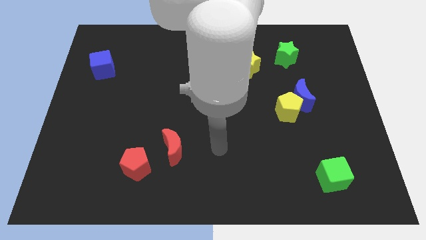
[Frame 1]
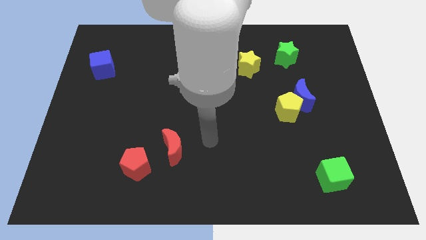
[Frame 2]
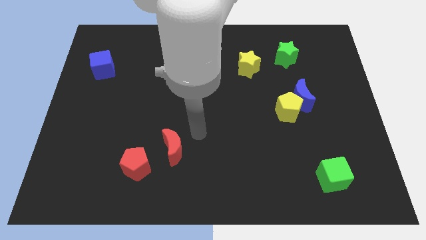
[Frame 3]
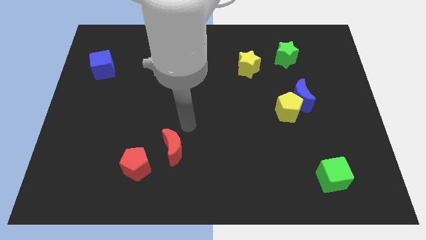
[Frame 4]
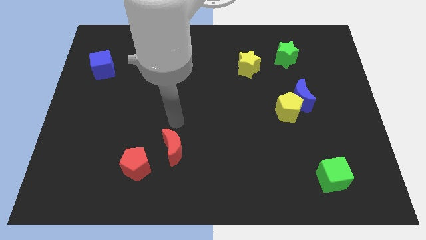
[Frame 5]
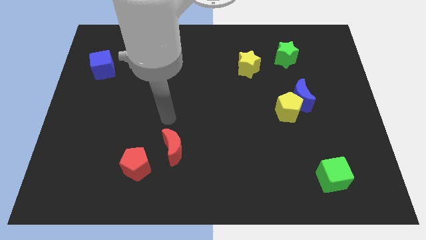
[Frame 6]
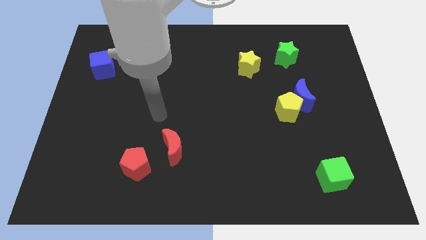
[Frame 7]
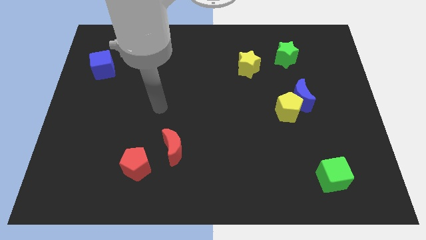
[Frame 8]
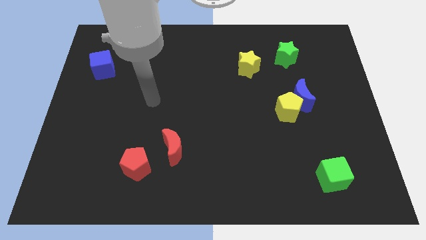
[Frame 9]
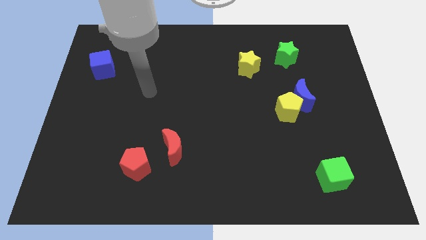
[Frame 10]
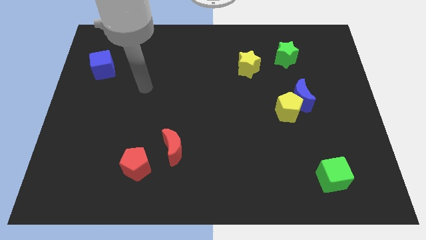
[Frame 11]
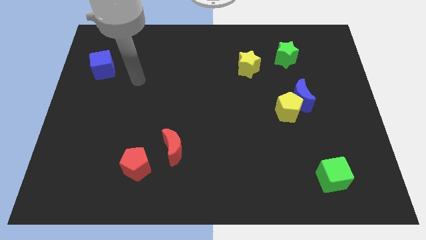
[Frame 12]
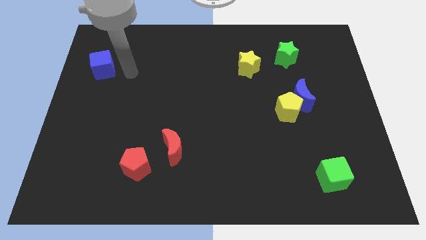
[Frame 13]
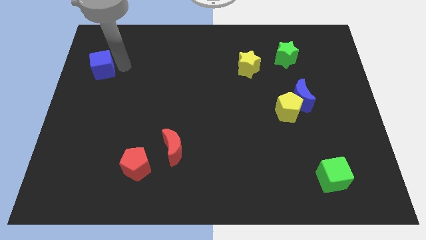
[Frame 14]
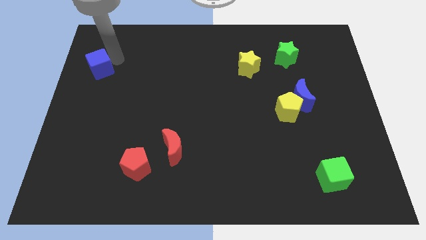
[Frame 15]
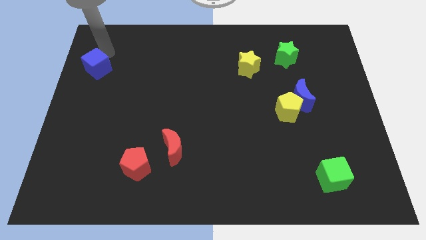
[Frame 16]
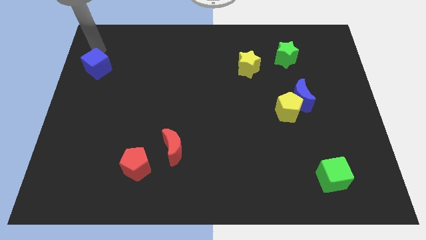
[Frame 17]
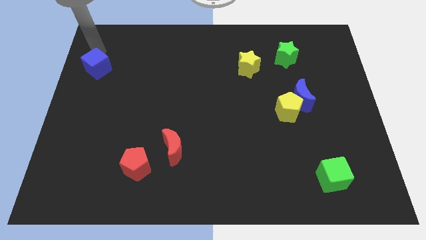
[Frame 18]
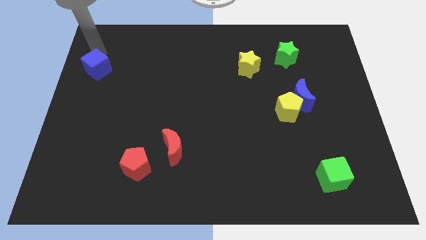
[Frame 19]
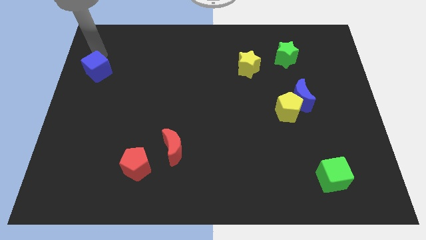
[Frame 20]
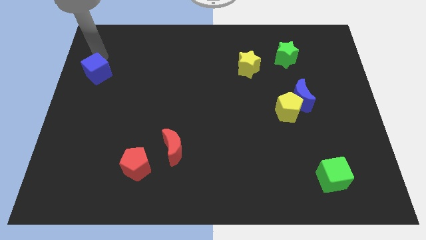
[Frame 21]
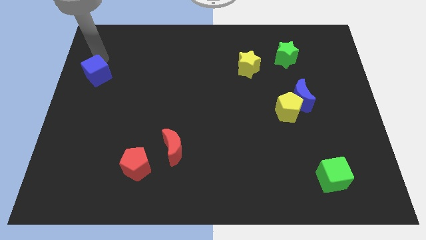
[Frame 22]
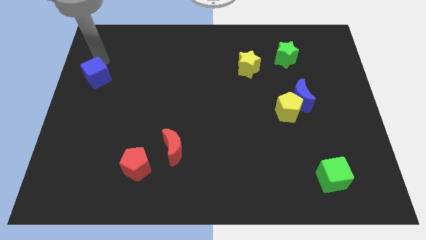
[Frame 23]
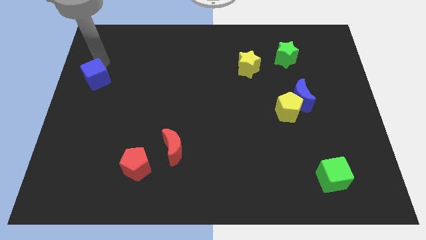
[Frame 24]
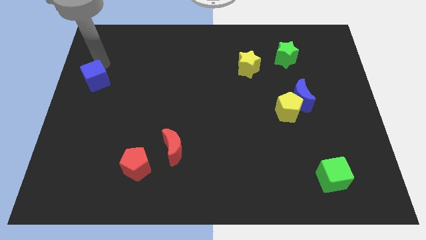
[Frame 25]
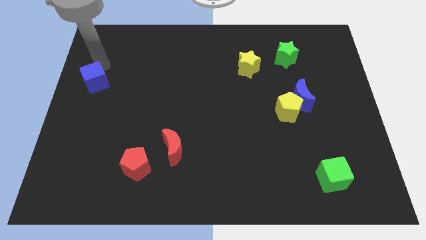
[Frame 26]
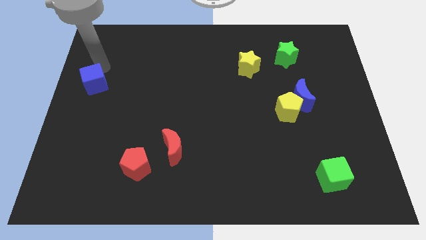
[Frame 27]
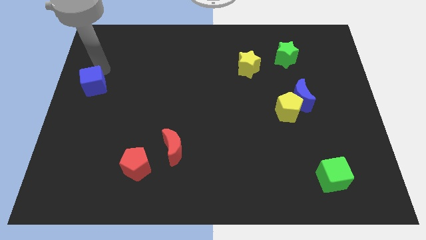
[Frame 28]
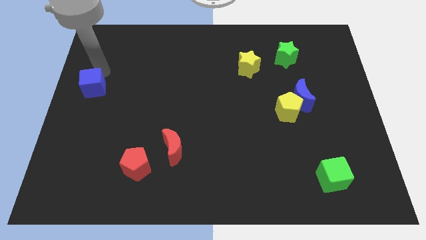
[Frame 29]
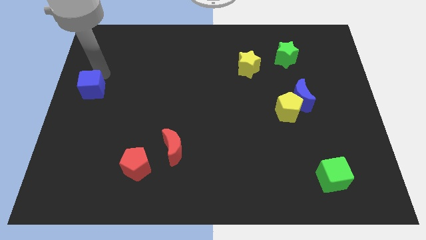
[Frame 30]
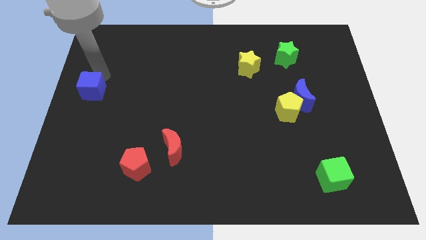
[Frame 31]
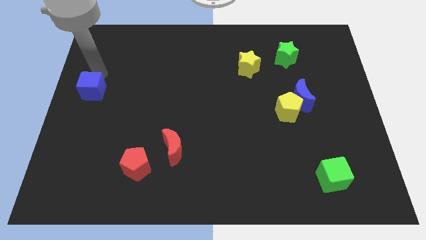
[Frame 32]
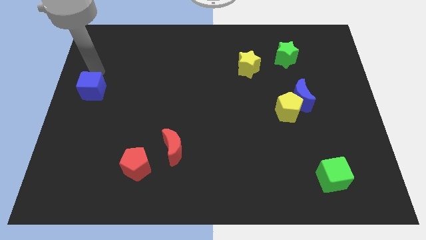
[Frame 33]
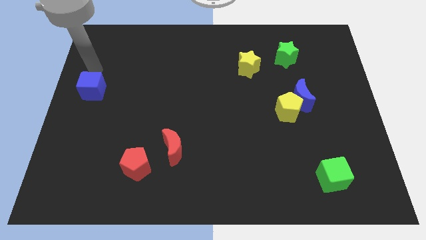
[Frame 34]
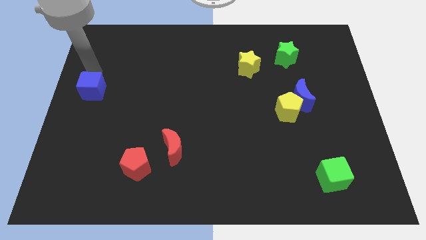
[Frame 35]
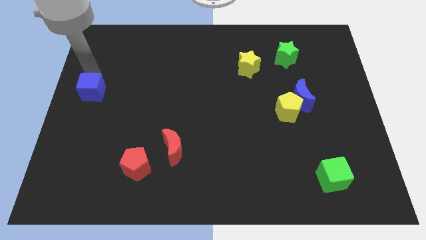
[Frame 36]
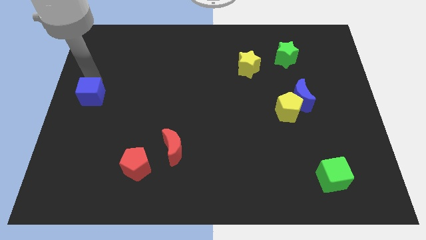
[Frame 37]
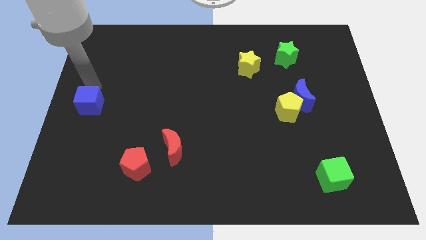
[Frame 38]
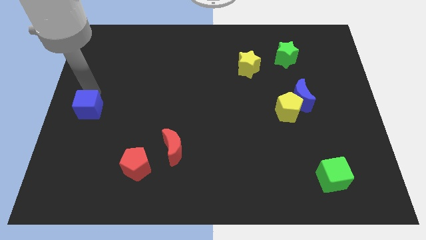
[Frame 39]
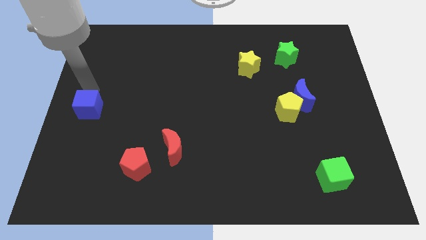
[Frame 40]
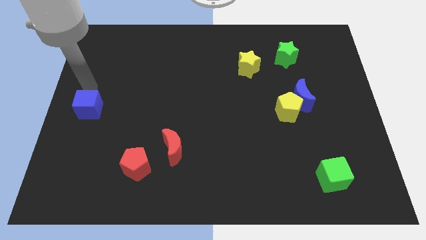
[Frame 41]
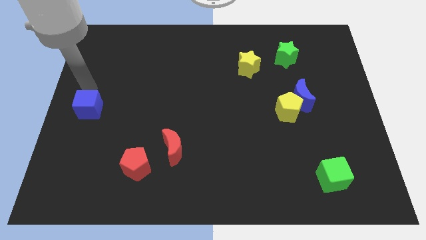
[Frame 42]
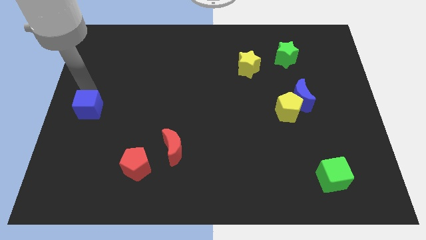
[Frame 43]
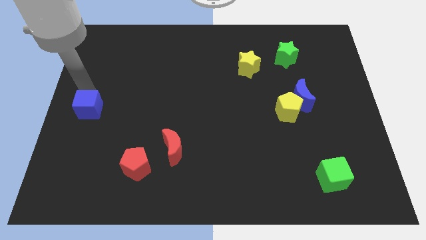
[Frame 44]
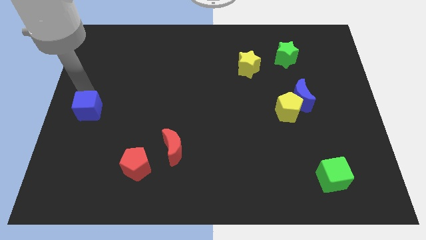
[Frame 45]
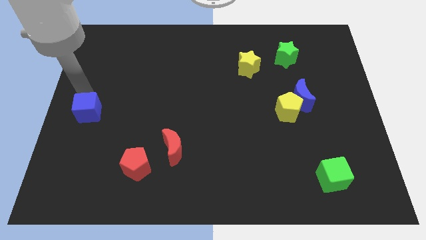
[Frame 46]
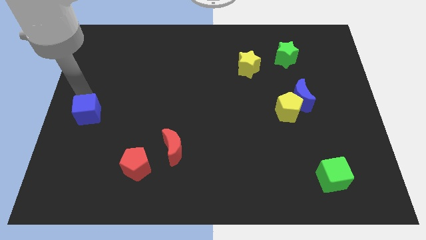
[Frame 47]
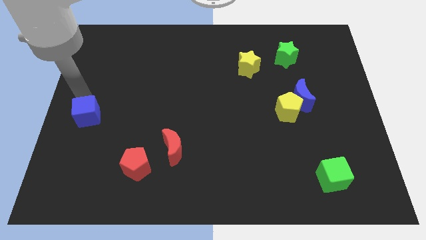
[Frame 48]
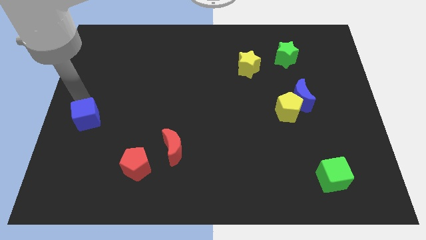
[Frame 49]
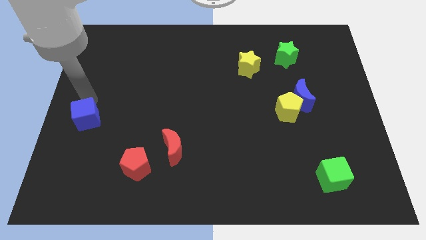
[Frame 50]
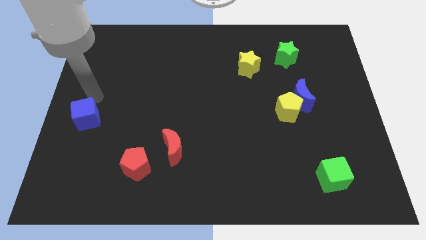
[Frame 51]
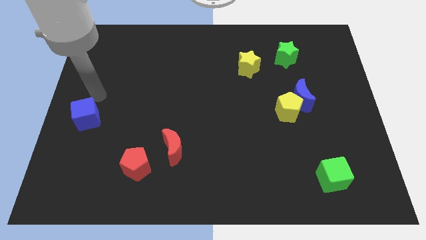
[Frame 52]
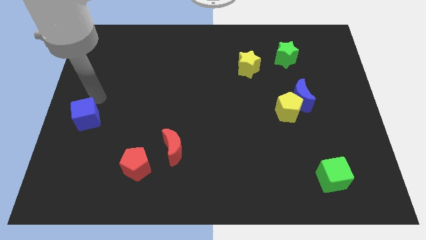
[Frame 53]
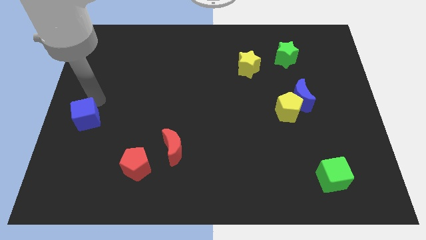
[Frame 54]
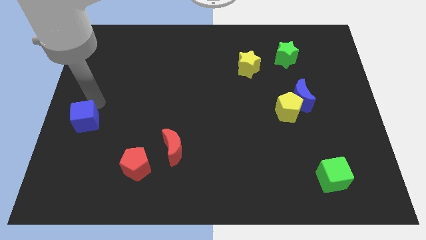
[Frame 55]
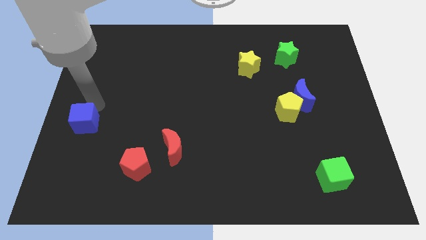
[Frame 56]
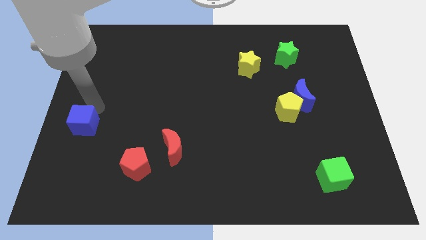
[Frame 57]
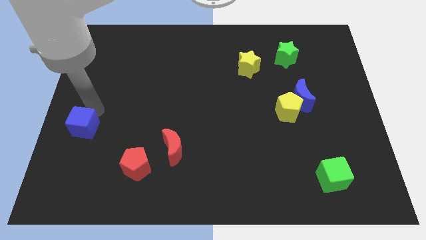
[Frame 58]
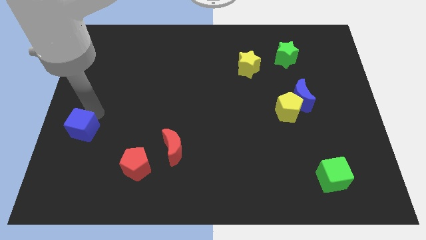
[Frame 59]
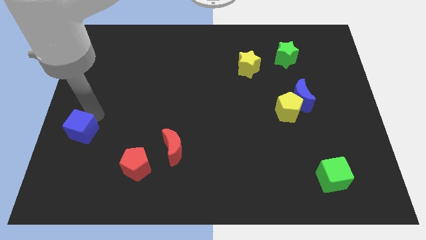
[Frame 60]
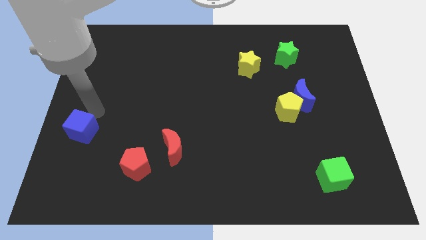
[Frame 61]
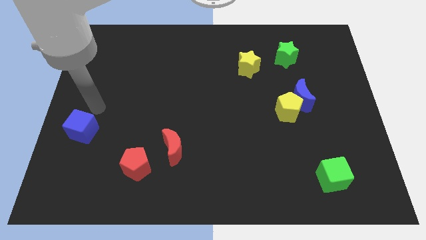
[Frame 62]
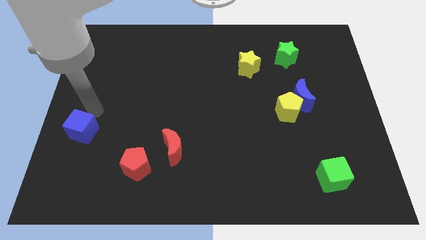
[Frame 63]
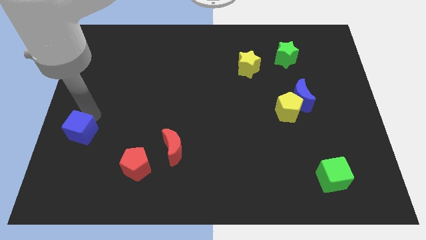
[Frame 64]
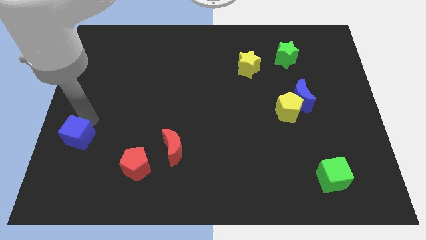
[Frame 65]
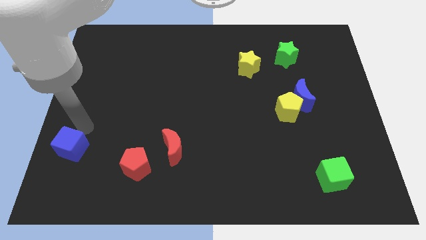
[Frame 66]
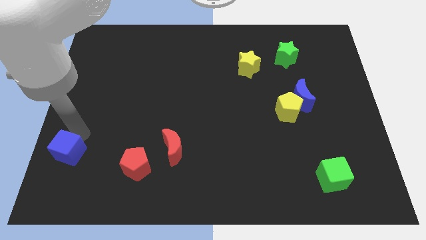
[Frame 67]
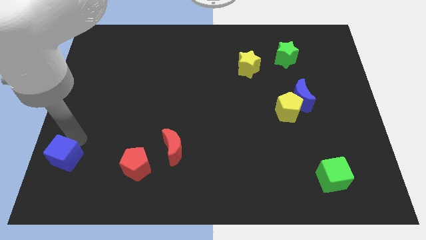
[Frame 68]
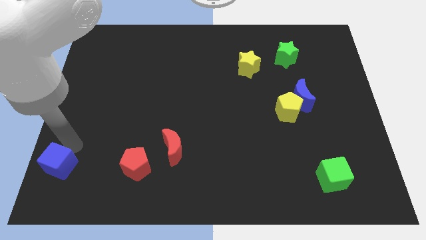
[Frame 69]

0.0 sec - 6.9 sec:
put the blue cube to the bottom left of the board
